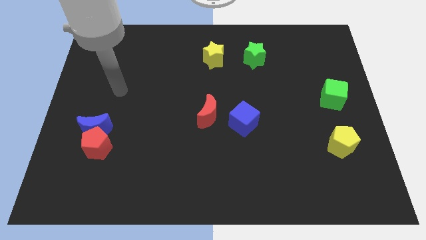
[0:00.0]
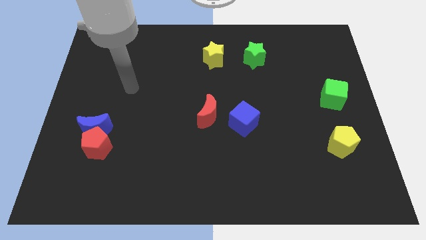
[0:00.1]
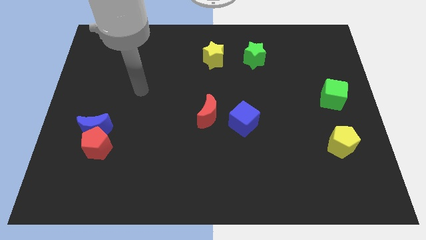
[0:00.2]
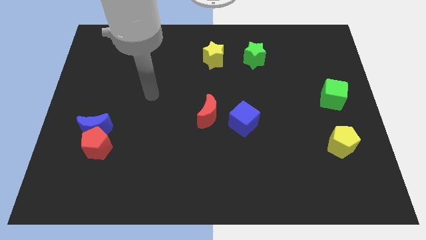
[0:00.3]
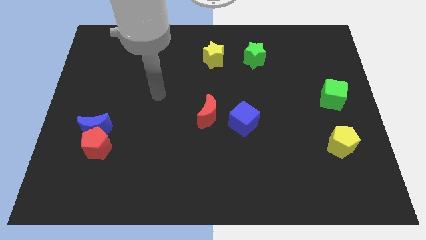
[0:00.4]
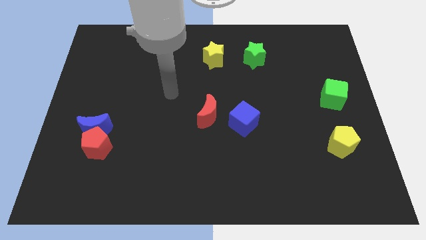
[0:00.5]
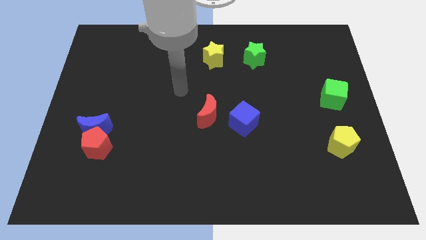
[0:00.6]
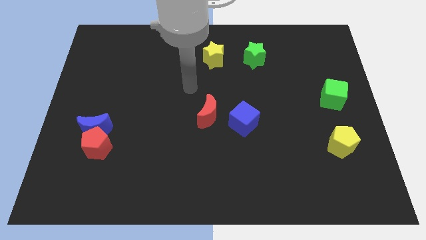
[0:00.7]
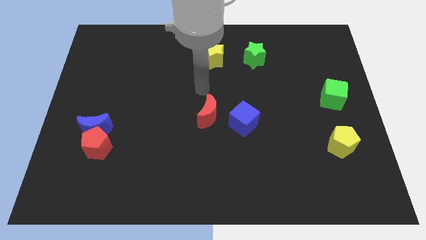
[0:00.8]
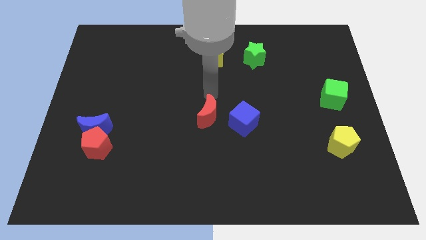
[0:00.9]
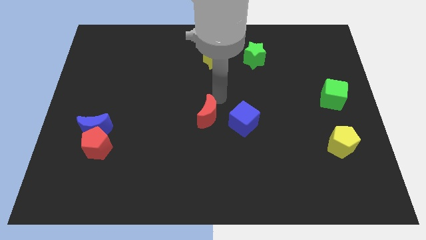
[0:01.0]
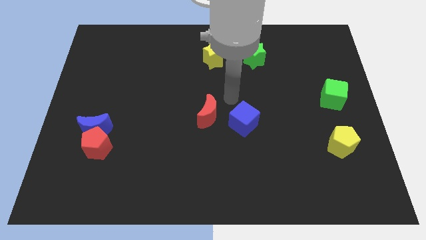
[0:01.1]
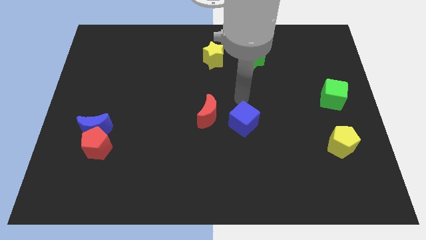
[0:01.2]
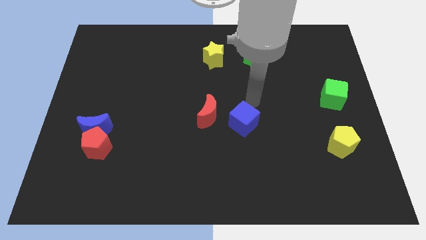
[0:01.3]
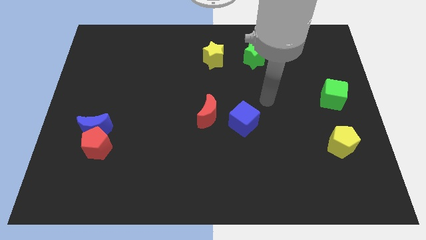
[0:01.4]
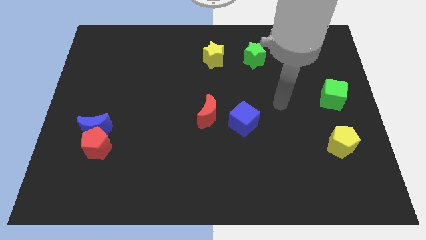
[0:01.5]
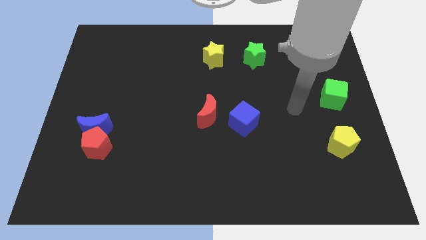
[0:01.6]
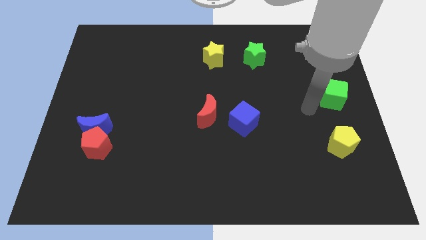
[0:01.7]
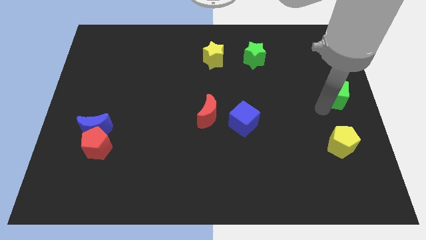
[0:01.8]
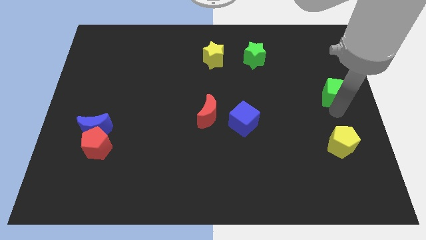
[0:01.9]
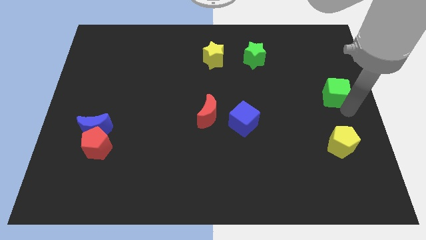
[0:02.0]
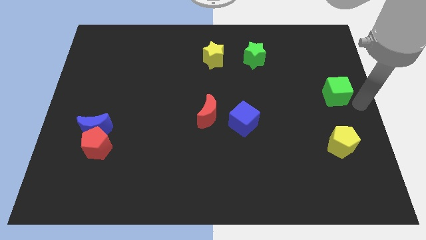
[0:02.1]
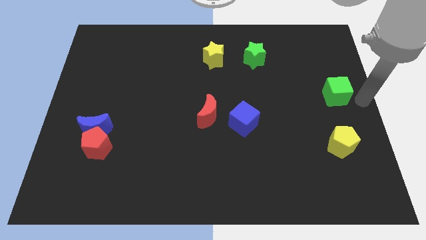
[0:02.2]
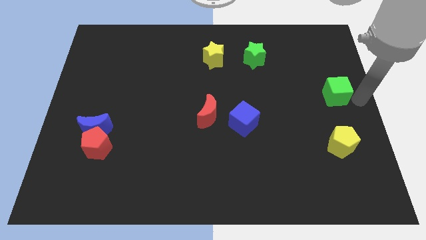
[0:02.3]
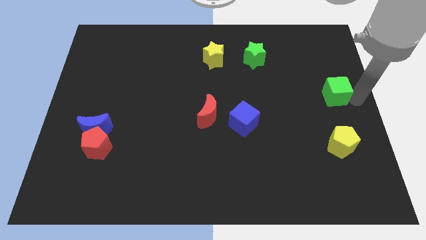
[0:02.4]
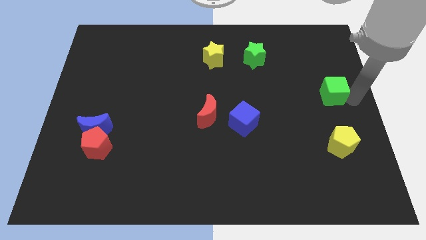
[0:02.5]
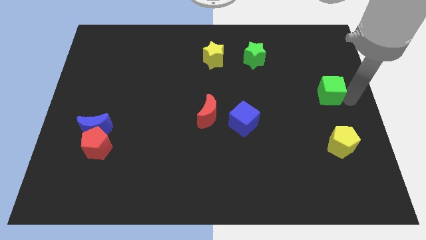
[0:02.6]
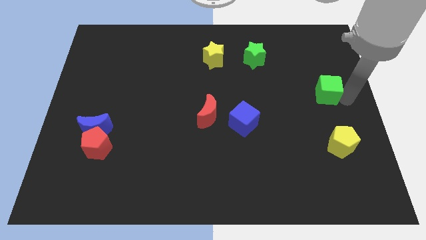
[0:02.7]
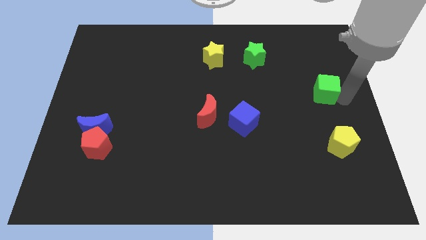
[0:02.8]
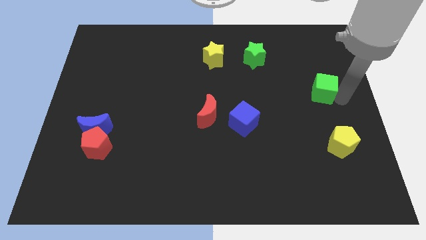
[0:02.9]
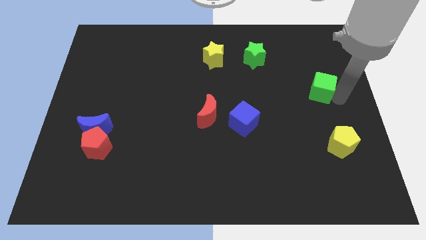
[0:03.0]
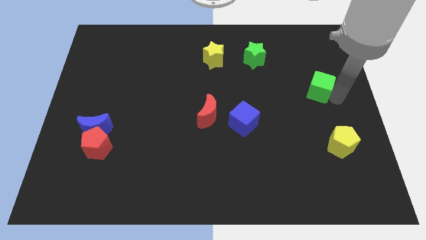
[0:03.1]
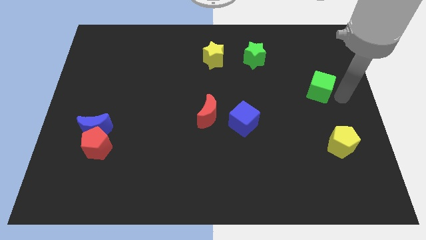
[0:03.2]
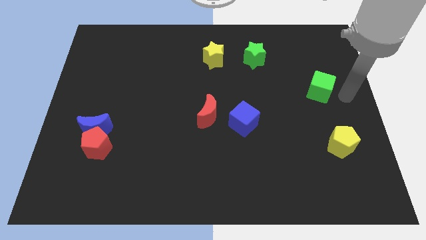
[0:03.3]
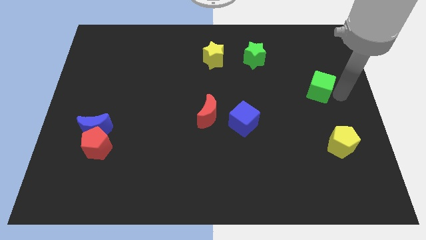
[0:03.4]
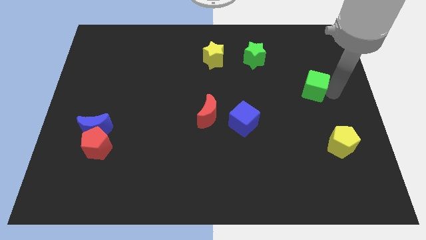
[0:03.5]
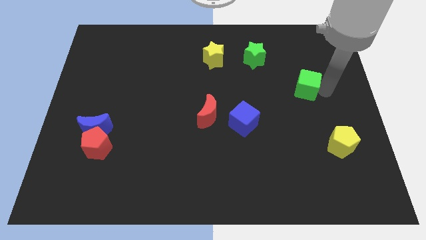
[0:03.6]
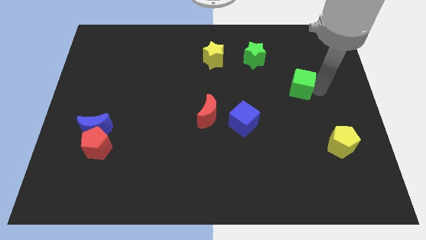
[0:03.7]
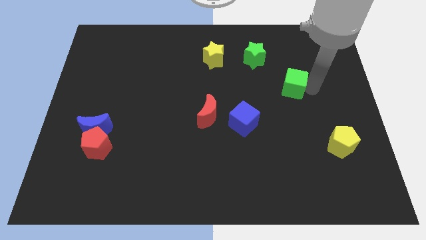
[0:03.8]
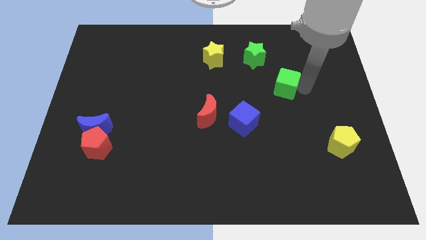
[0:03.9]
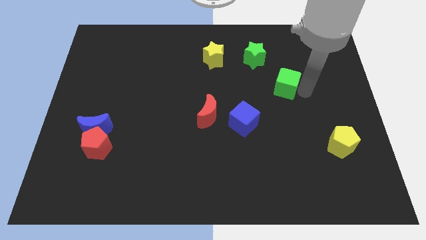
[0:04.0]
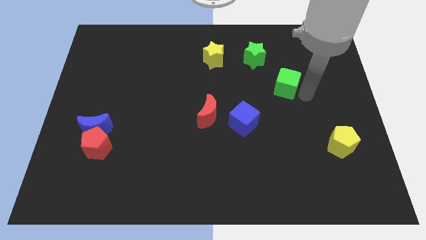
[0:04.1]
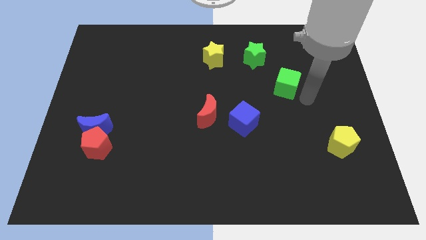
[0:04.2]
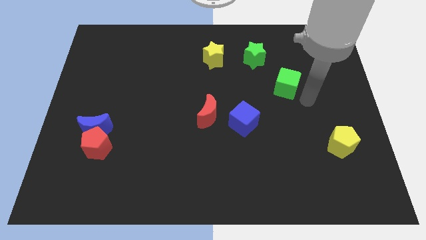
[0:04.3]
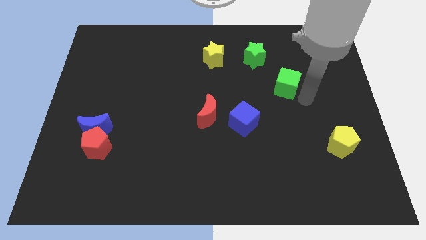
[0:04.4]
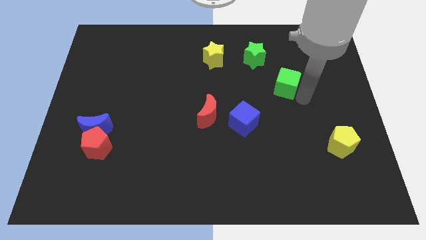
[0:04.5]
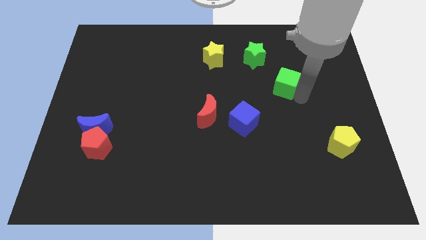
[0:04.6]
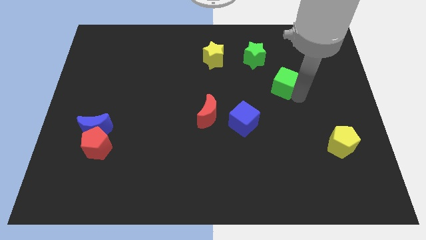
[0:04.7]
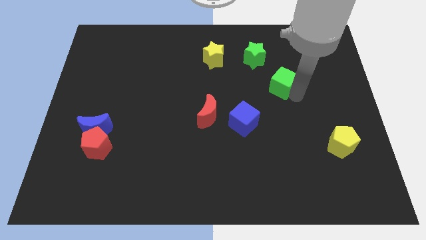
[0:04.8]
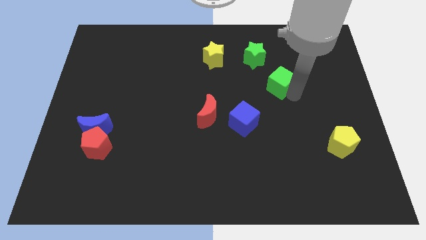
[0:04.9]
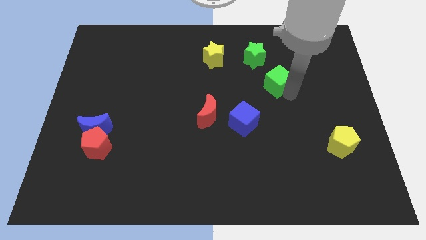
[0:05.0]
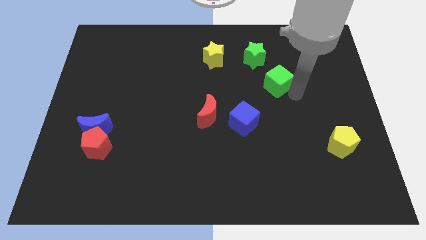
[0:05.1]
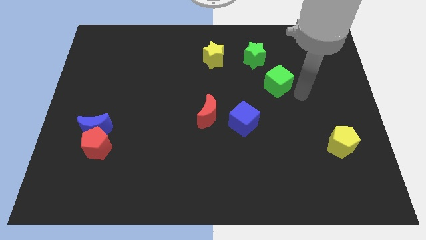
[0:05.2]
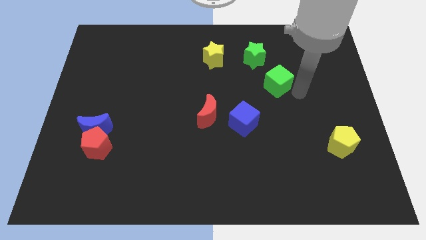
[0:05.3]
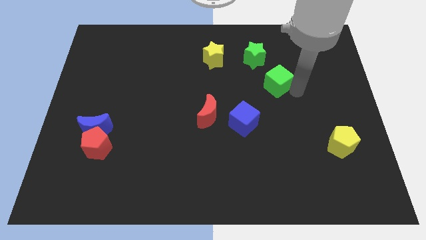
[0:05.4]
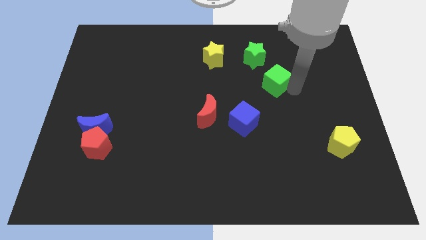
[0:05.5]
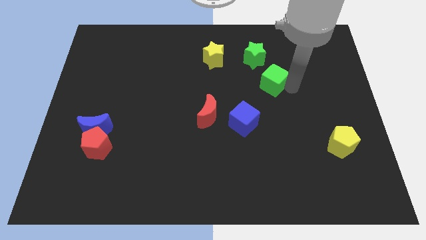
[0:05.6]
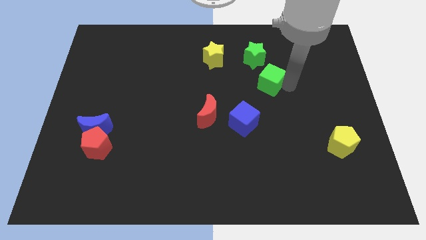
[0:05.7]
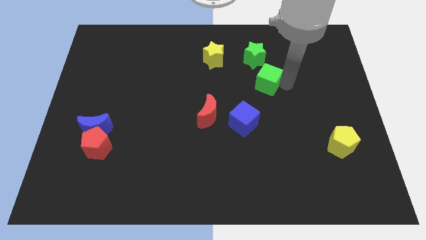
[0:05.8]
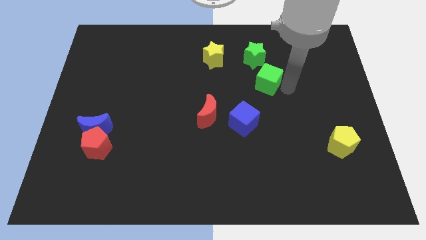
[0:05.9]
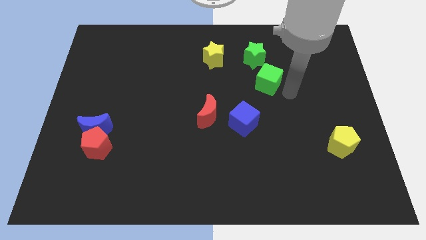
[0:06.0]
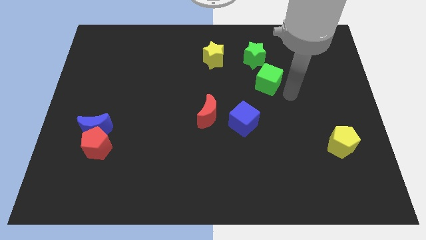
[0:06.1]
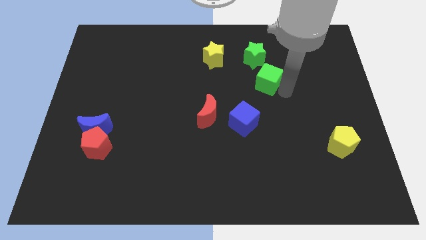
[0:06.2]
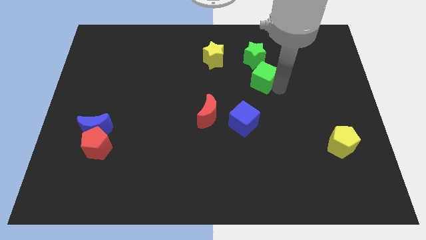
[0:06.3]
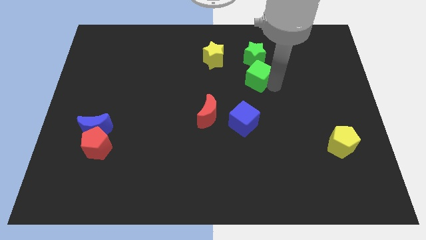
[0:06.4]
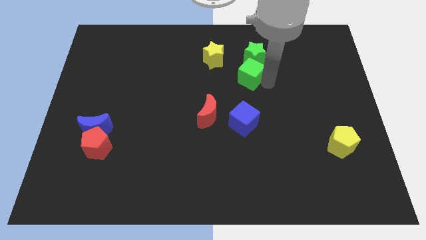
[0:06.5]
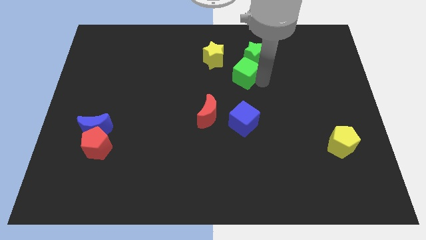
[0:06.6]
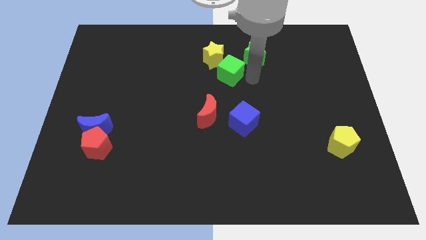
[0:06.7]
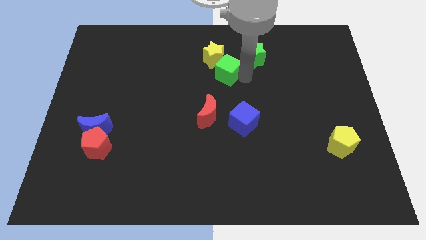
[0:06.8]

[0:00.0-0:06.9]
slide the green cube next to the yellow star
